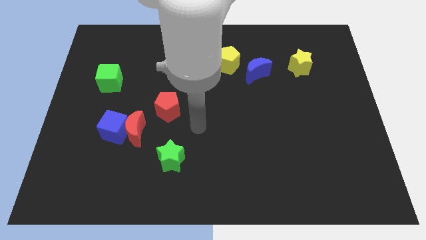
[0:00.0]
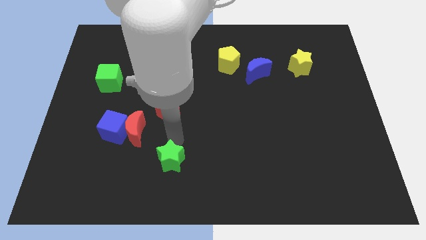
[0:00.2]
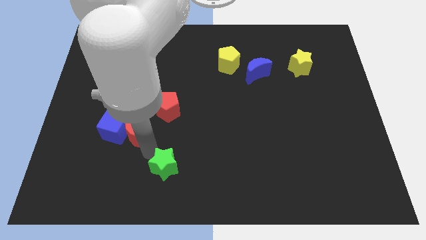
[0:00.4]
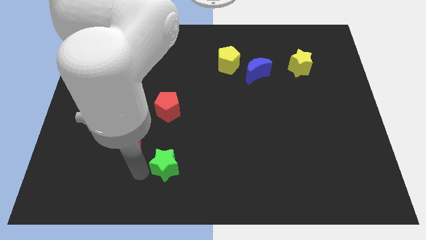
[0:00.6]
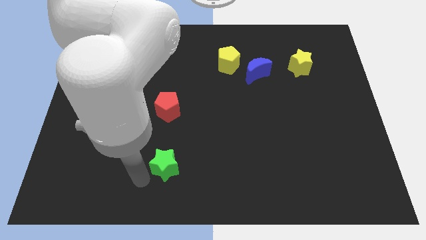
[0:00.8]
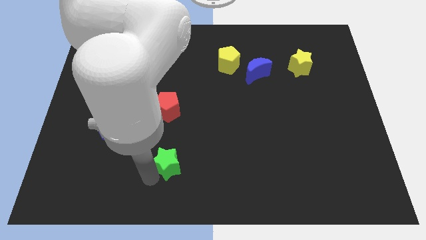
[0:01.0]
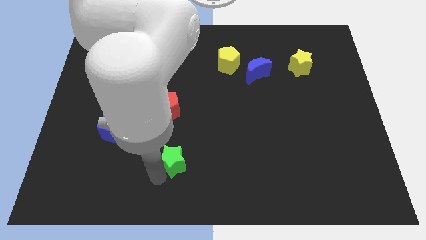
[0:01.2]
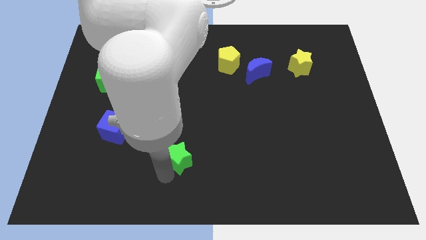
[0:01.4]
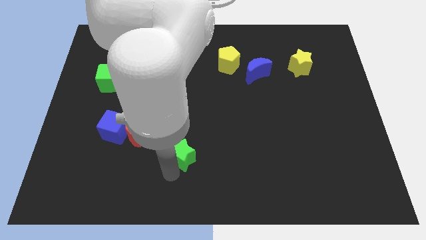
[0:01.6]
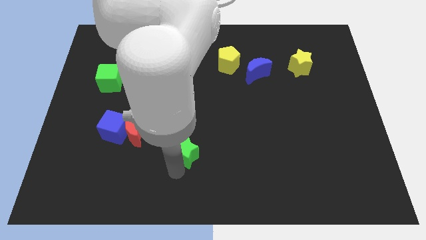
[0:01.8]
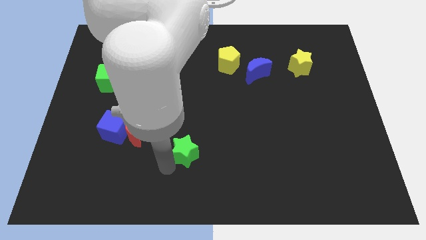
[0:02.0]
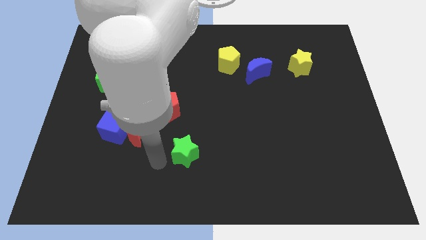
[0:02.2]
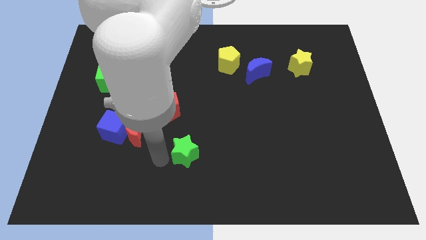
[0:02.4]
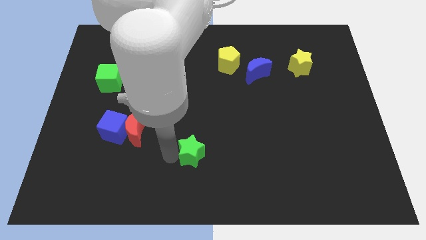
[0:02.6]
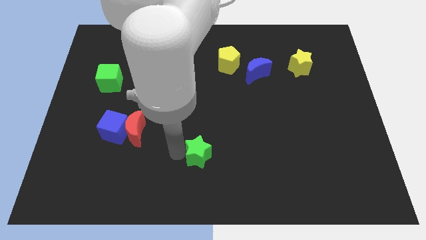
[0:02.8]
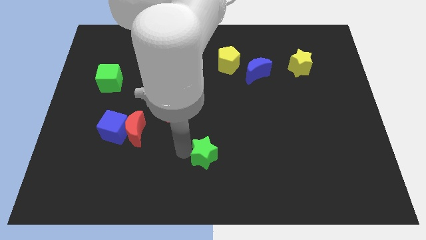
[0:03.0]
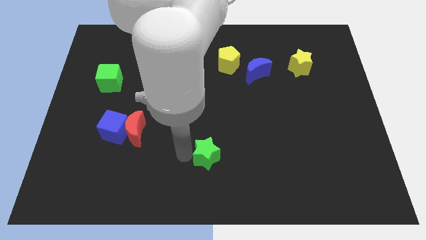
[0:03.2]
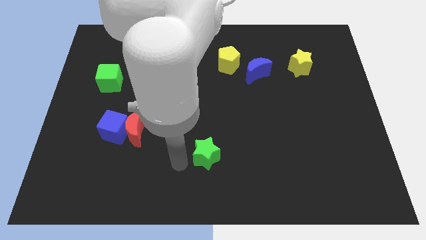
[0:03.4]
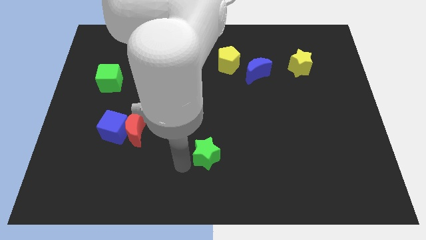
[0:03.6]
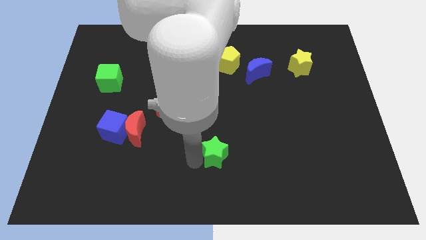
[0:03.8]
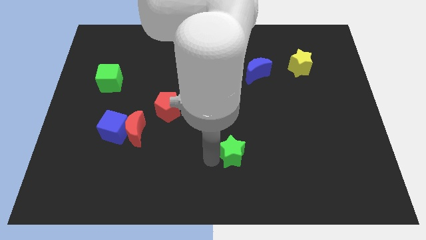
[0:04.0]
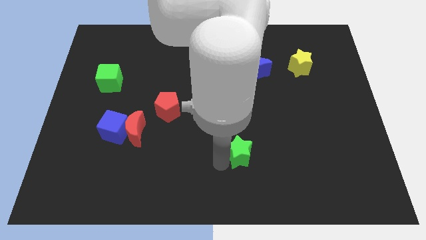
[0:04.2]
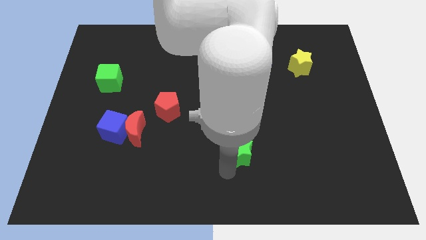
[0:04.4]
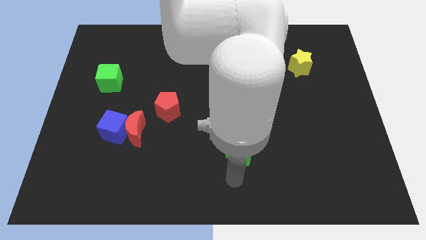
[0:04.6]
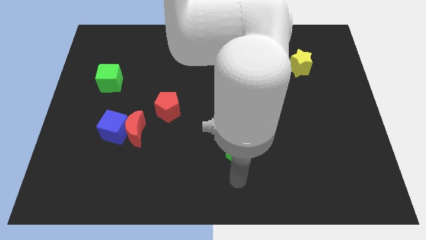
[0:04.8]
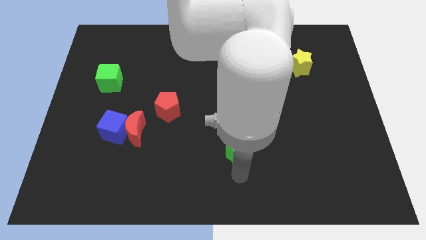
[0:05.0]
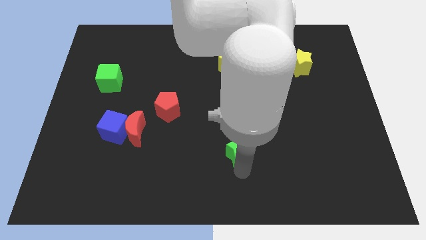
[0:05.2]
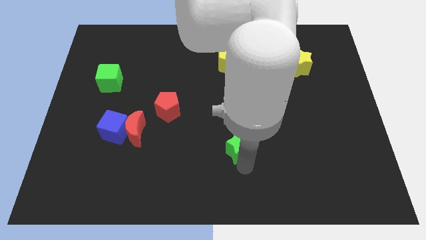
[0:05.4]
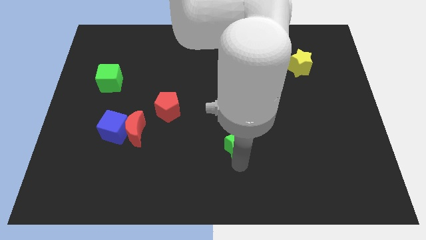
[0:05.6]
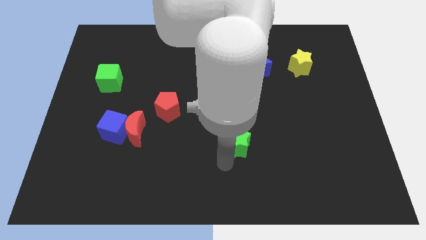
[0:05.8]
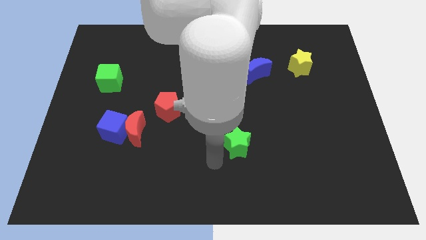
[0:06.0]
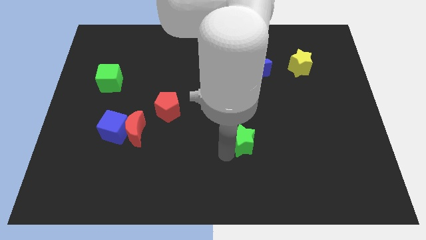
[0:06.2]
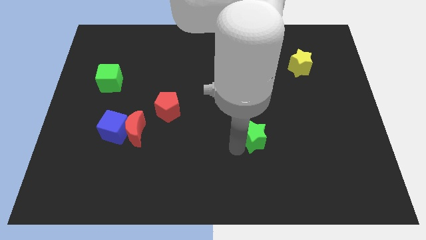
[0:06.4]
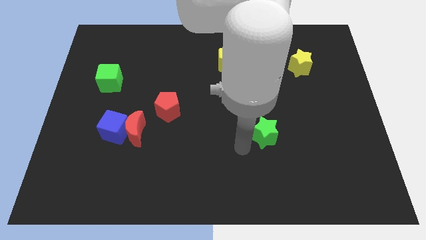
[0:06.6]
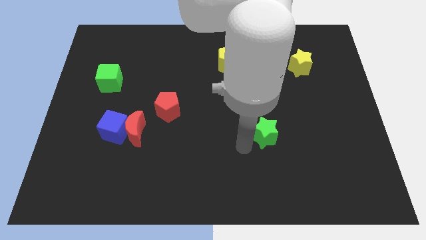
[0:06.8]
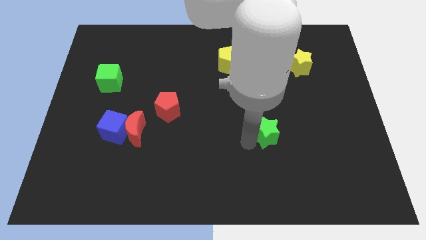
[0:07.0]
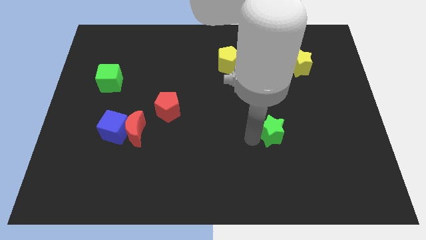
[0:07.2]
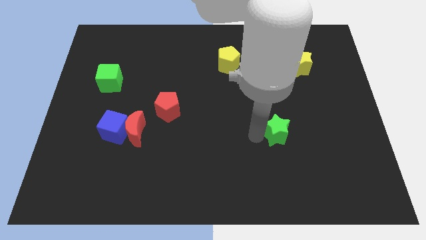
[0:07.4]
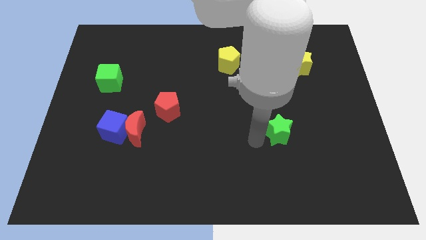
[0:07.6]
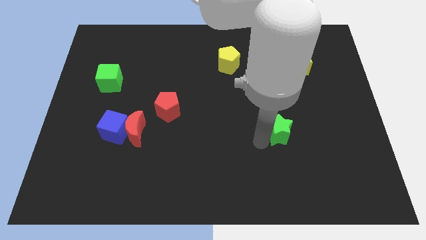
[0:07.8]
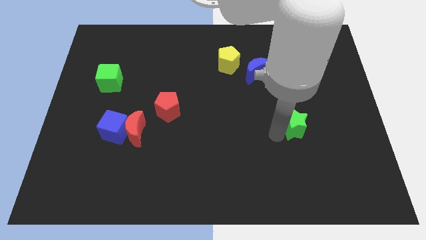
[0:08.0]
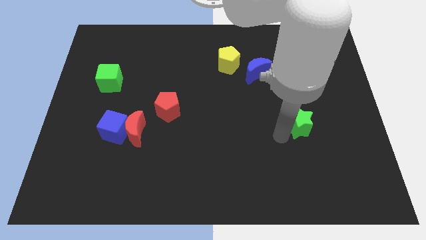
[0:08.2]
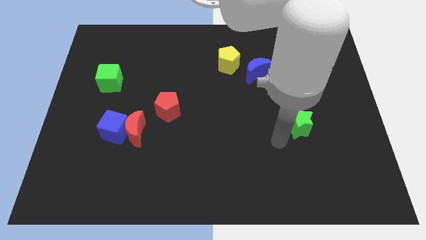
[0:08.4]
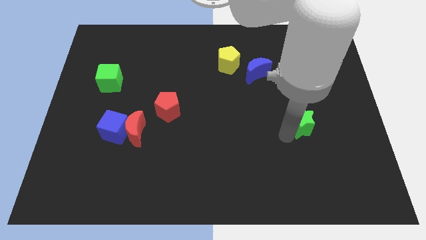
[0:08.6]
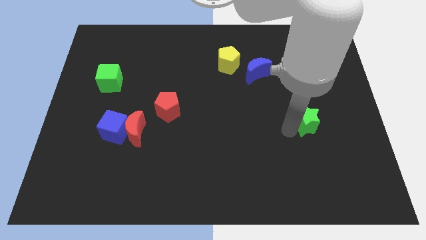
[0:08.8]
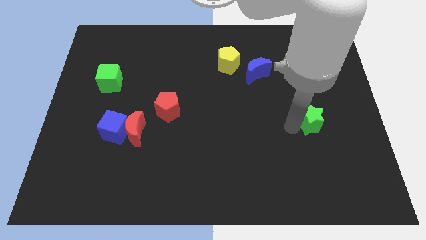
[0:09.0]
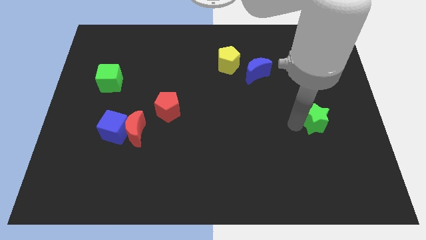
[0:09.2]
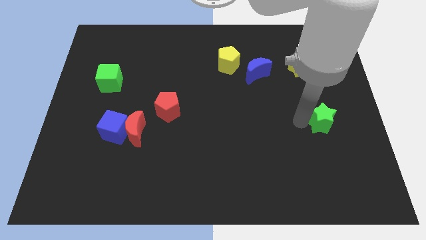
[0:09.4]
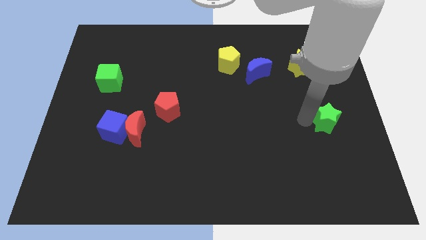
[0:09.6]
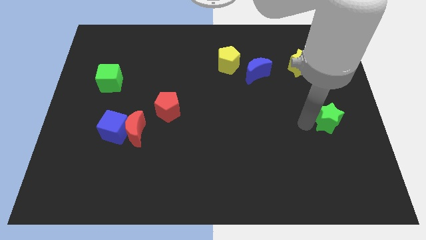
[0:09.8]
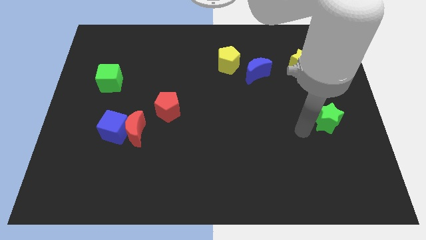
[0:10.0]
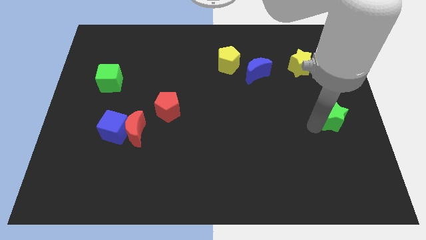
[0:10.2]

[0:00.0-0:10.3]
move the green star to the right side of the board

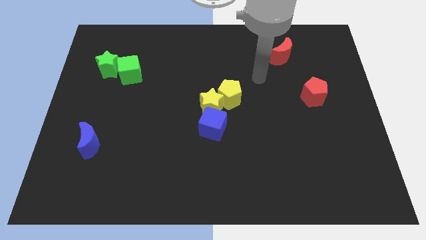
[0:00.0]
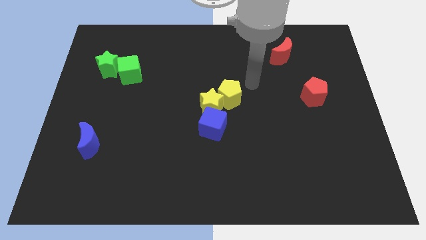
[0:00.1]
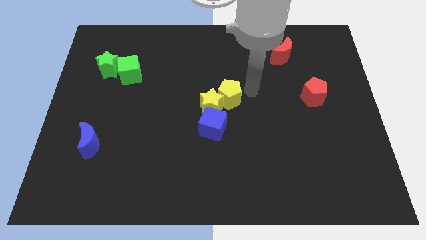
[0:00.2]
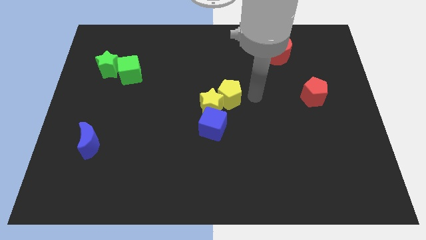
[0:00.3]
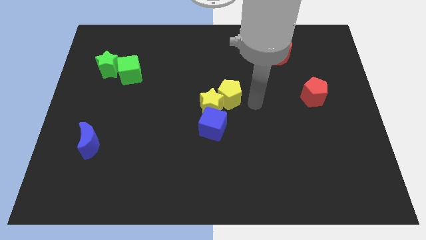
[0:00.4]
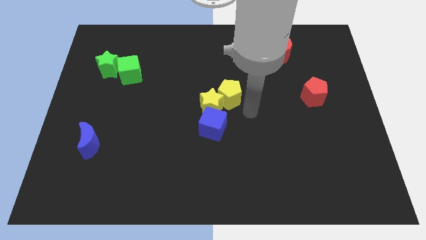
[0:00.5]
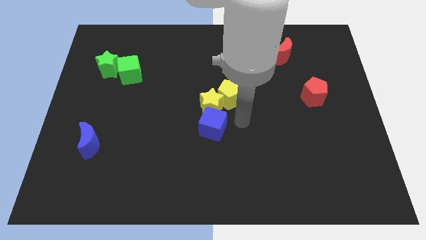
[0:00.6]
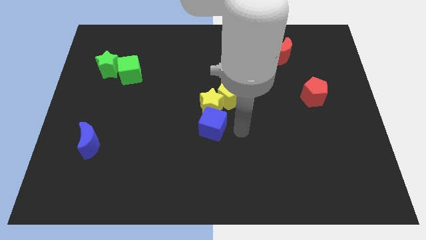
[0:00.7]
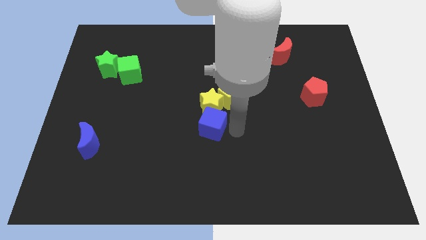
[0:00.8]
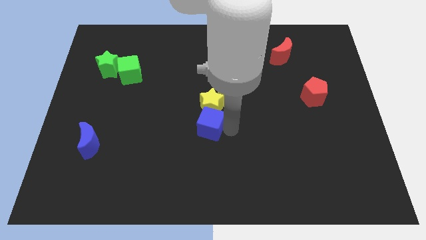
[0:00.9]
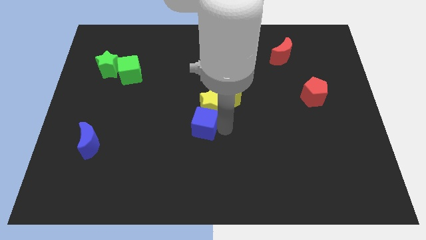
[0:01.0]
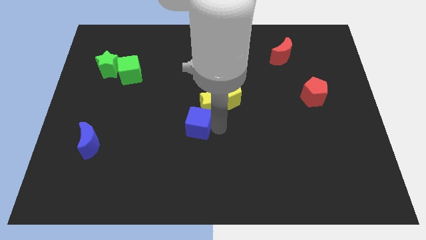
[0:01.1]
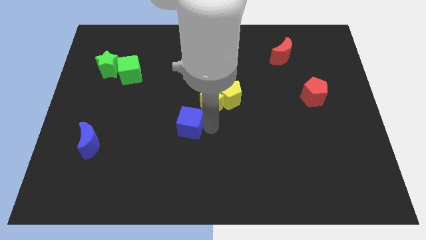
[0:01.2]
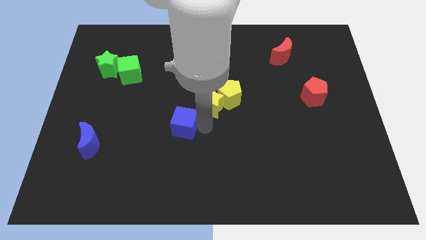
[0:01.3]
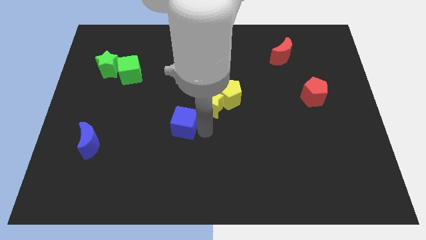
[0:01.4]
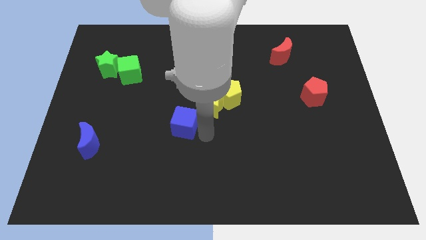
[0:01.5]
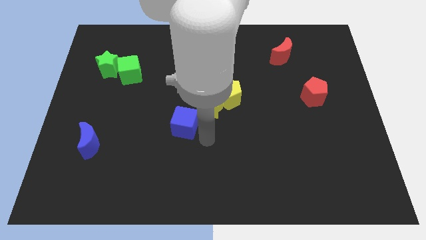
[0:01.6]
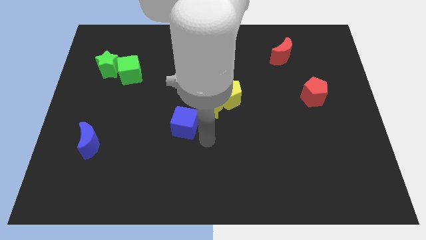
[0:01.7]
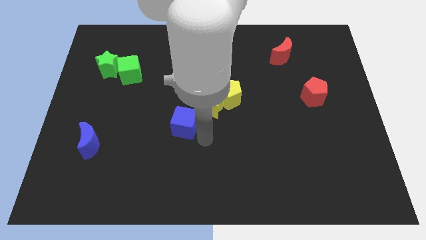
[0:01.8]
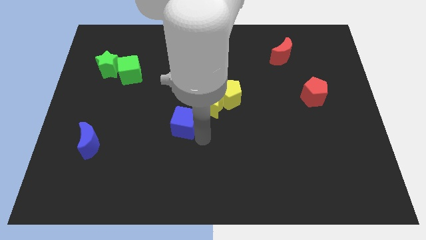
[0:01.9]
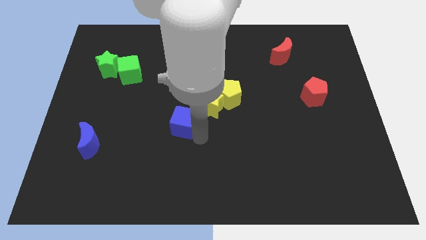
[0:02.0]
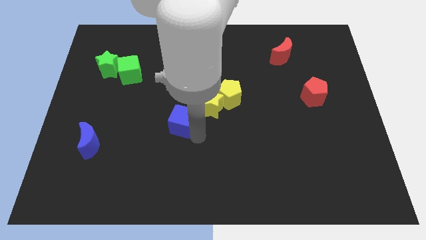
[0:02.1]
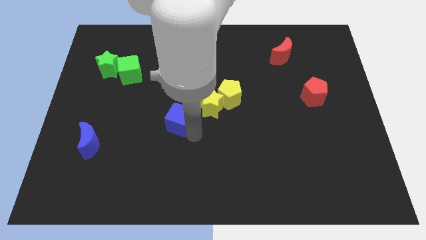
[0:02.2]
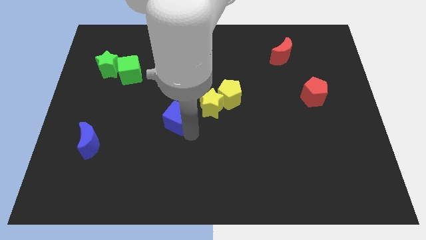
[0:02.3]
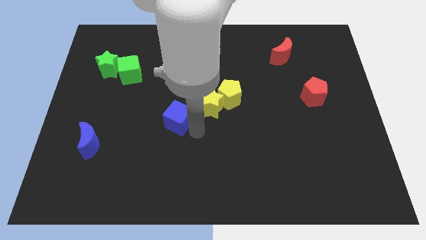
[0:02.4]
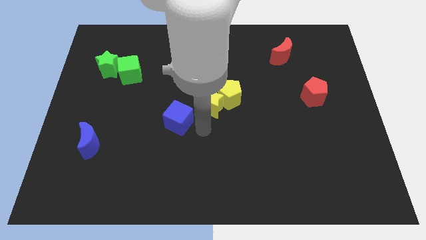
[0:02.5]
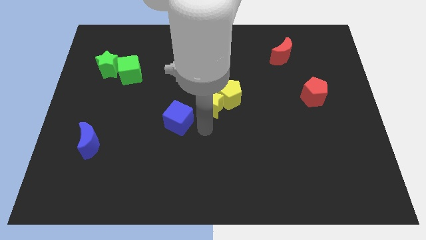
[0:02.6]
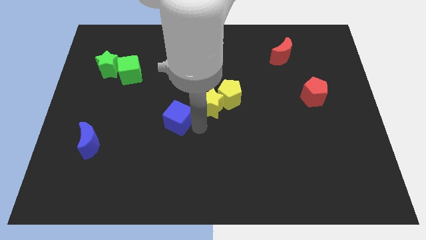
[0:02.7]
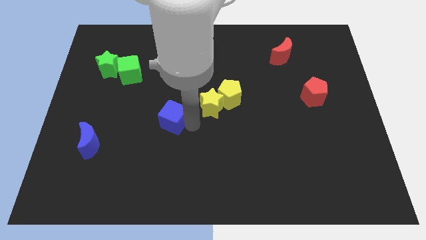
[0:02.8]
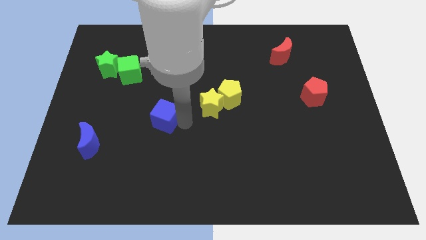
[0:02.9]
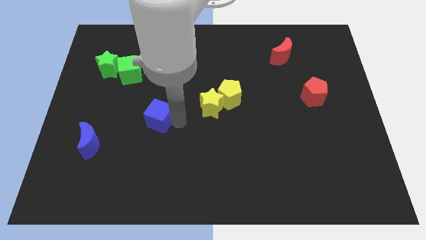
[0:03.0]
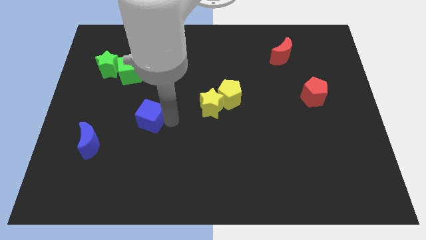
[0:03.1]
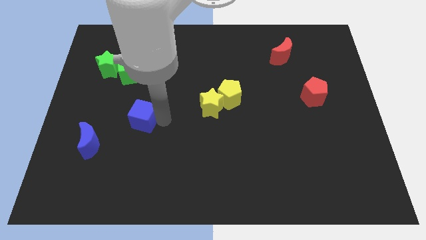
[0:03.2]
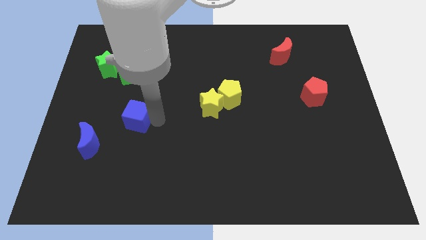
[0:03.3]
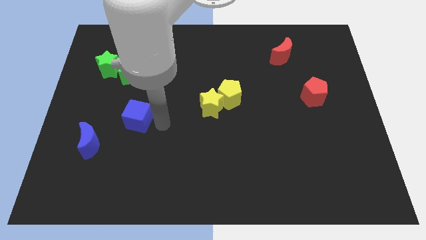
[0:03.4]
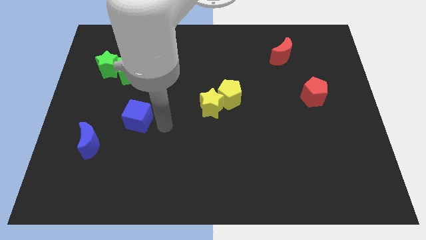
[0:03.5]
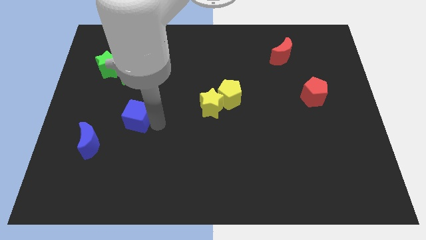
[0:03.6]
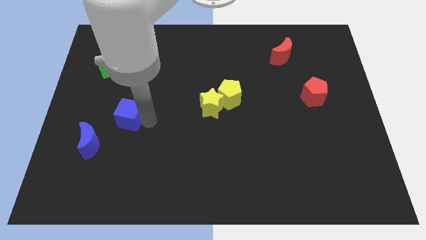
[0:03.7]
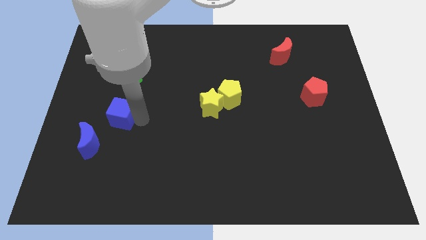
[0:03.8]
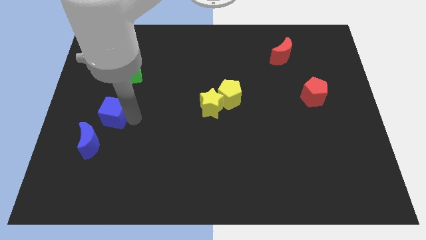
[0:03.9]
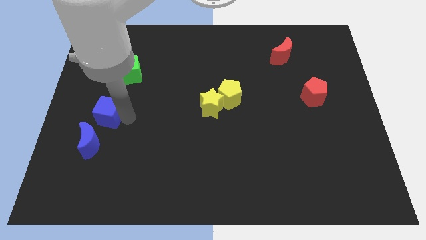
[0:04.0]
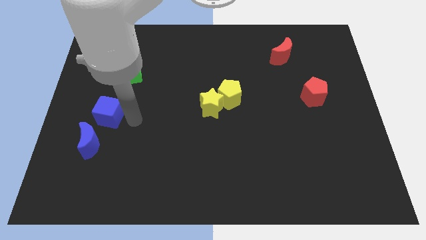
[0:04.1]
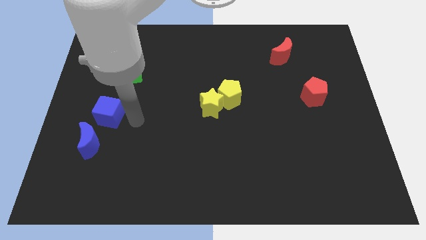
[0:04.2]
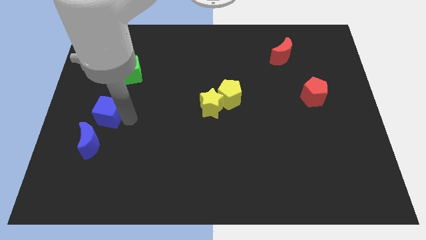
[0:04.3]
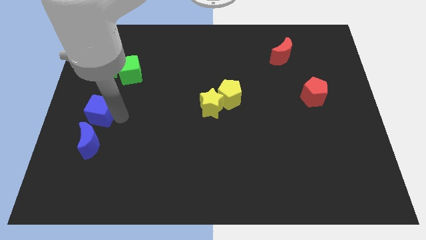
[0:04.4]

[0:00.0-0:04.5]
move the blue cube to the left side
